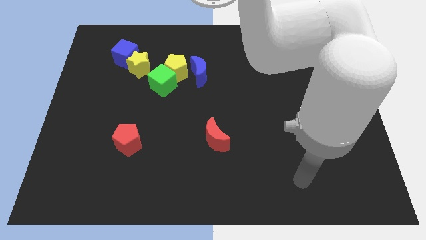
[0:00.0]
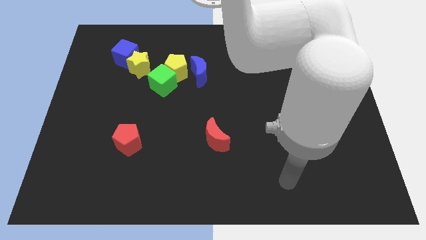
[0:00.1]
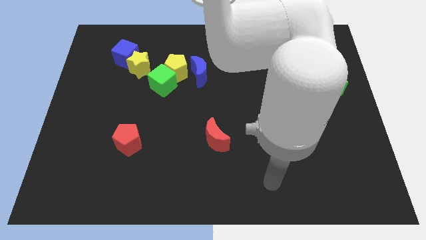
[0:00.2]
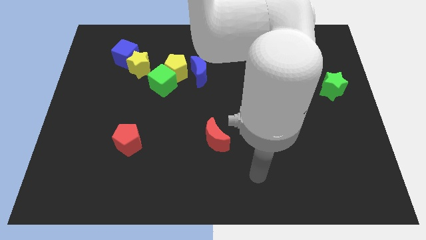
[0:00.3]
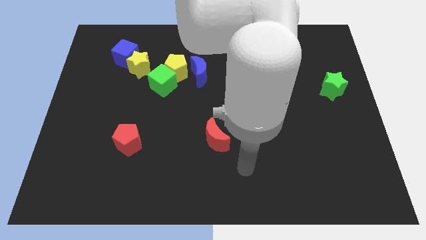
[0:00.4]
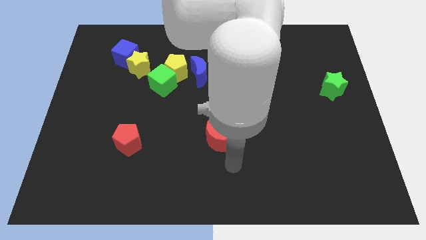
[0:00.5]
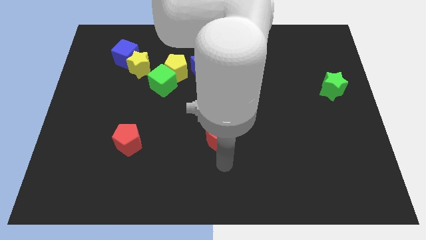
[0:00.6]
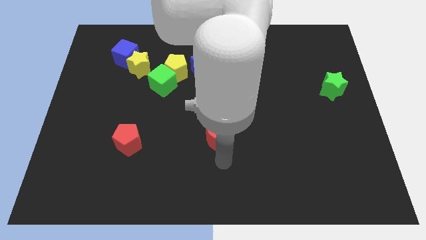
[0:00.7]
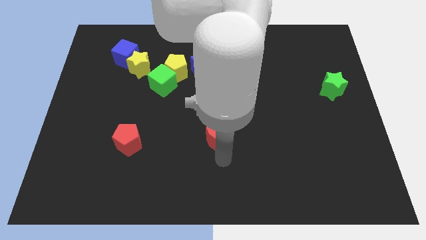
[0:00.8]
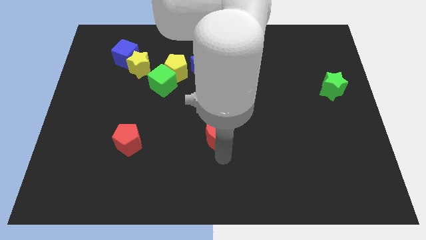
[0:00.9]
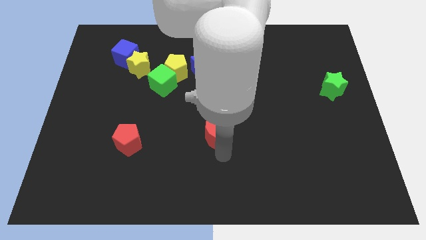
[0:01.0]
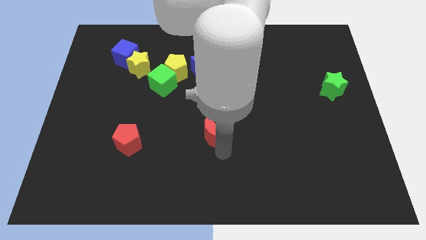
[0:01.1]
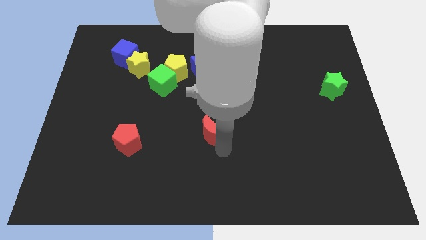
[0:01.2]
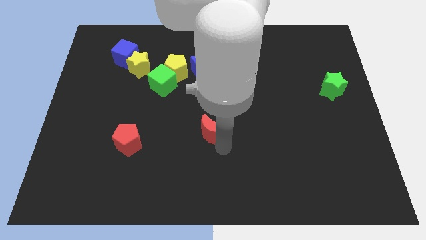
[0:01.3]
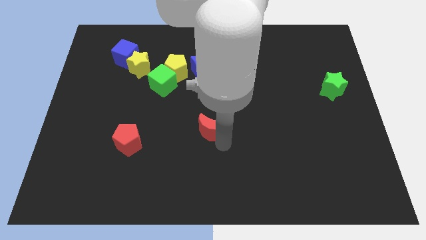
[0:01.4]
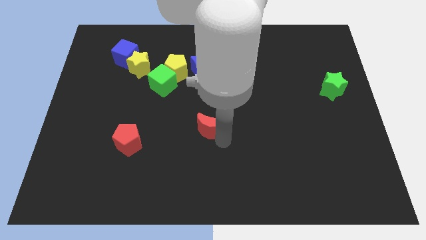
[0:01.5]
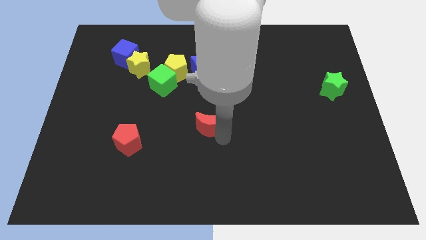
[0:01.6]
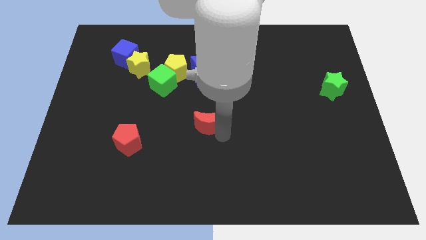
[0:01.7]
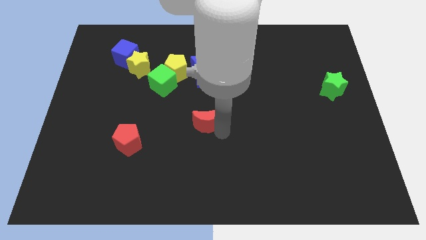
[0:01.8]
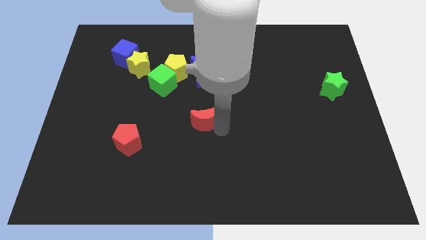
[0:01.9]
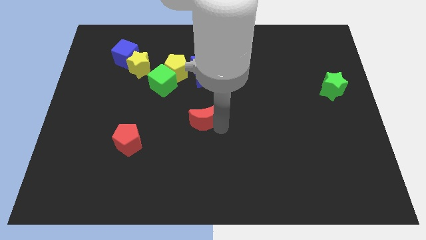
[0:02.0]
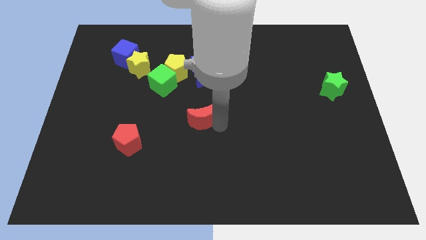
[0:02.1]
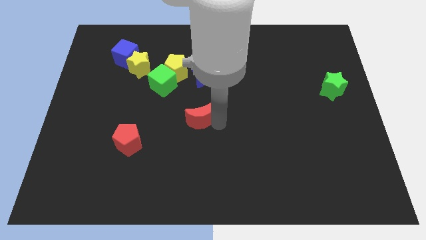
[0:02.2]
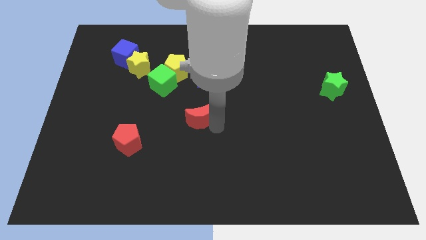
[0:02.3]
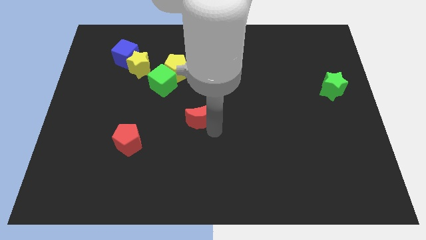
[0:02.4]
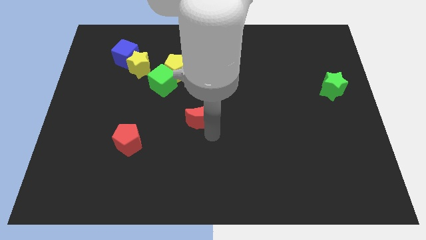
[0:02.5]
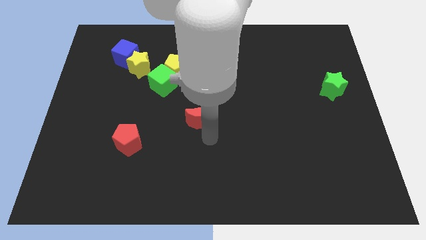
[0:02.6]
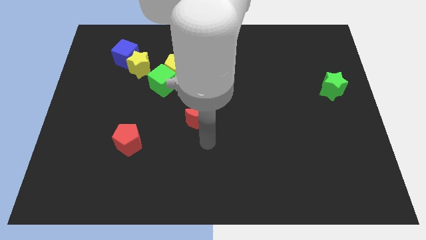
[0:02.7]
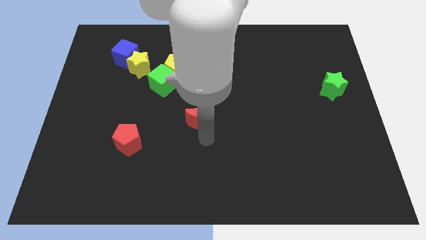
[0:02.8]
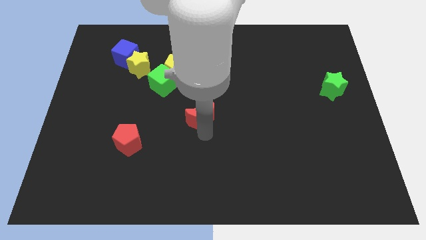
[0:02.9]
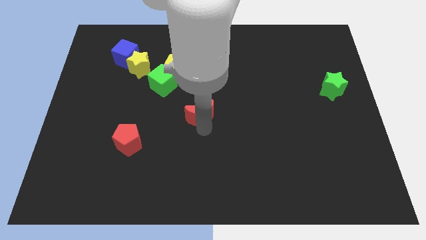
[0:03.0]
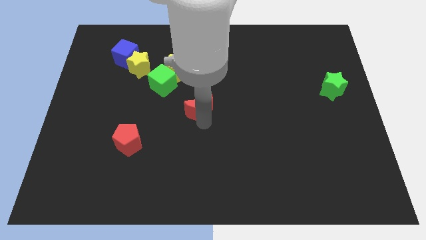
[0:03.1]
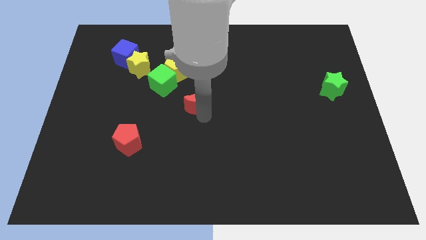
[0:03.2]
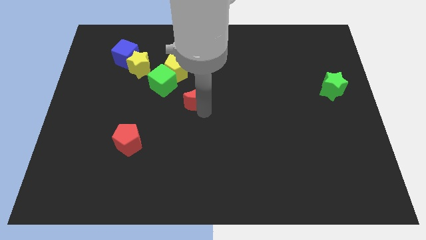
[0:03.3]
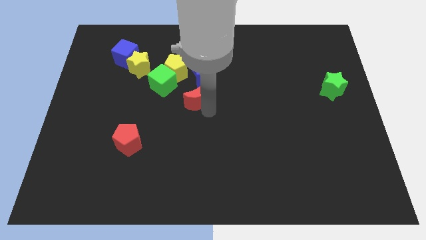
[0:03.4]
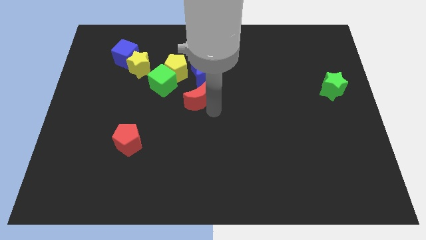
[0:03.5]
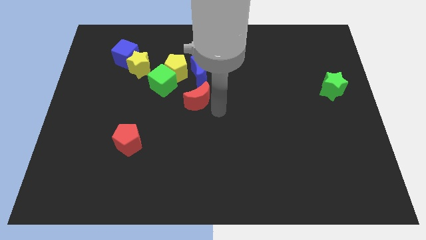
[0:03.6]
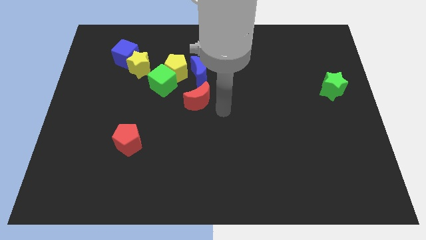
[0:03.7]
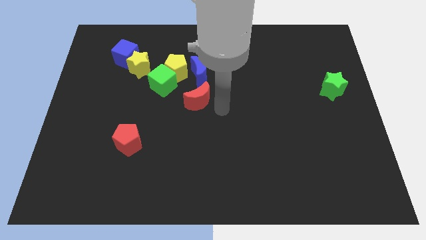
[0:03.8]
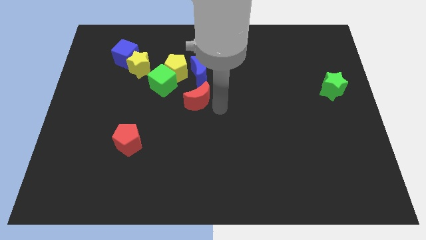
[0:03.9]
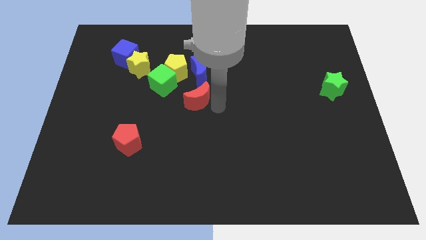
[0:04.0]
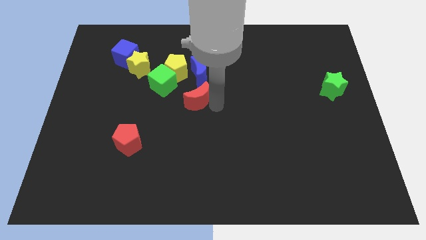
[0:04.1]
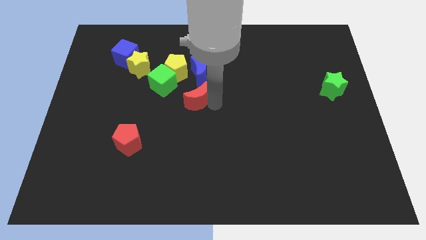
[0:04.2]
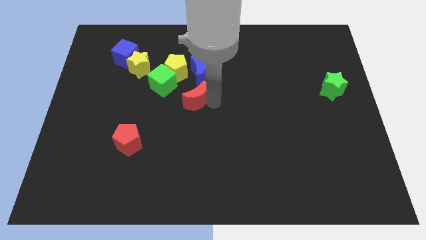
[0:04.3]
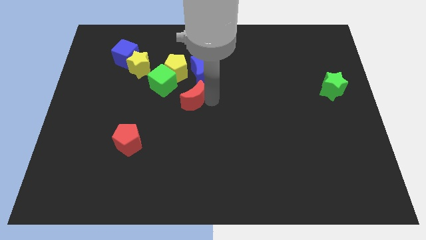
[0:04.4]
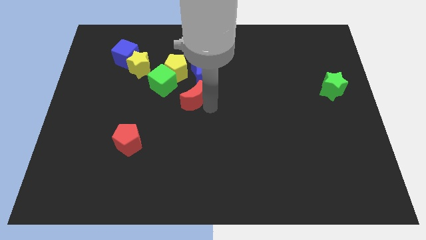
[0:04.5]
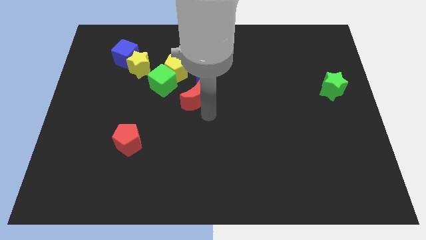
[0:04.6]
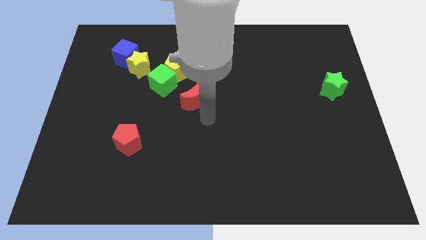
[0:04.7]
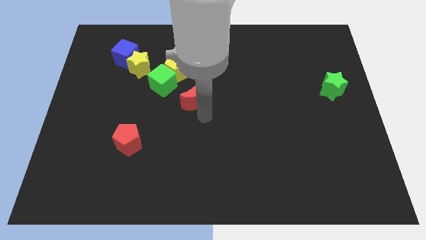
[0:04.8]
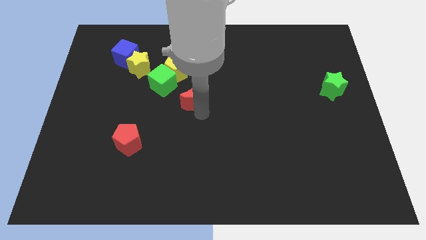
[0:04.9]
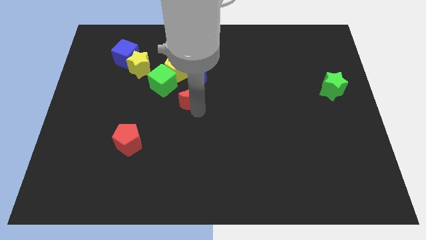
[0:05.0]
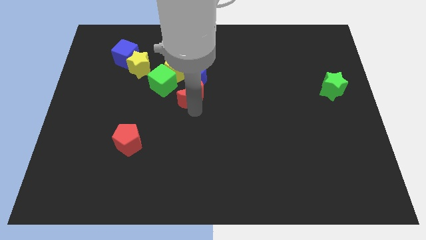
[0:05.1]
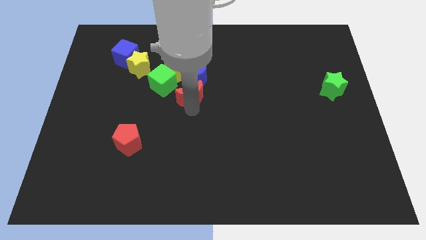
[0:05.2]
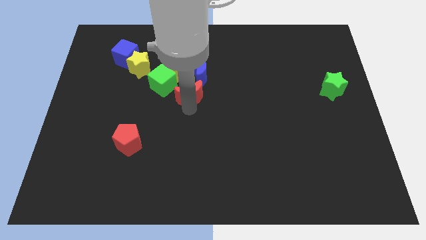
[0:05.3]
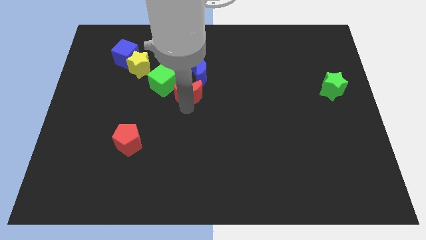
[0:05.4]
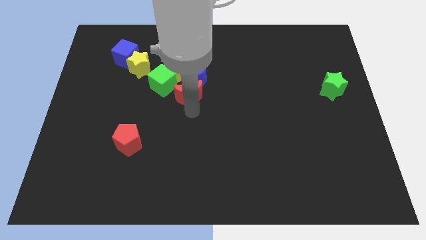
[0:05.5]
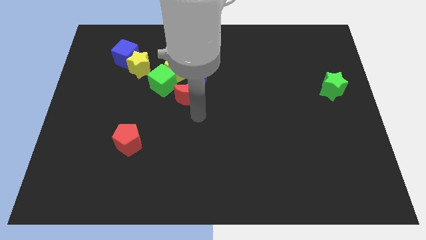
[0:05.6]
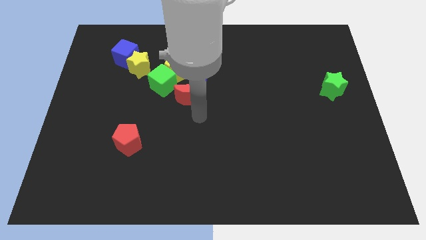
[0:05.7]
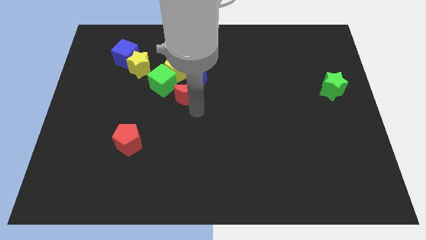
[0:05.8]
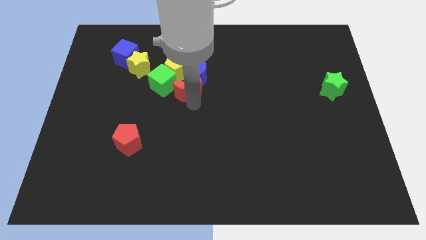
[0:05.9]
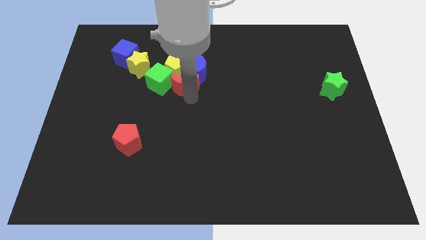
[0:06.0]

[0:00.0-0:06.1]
put the red moon next to the yellow pentagon

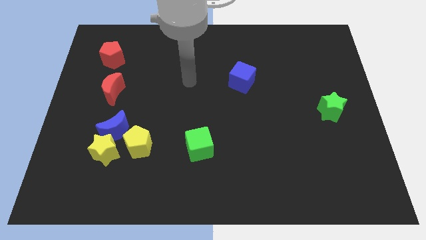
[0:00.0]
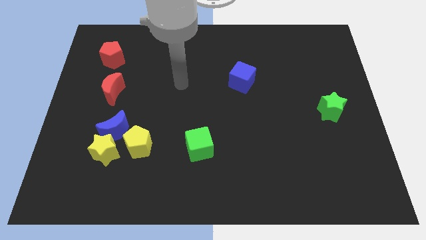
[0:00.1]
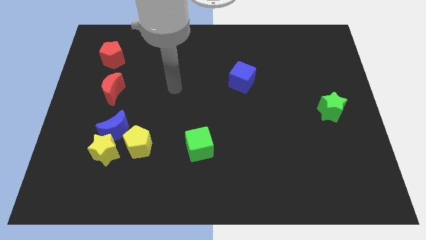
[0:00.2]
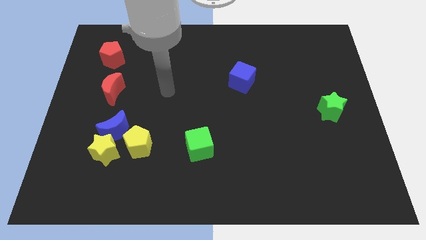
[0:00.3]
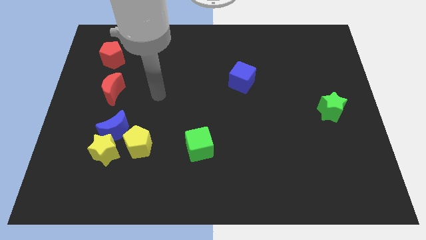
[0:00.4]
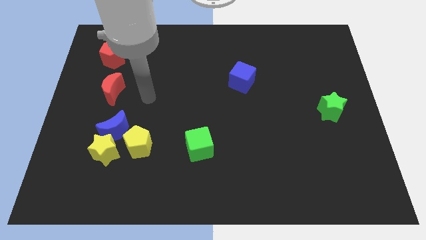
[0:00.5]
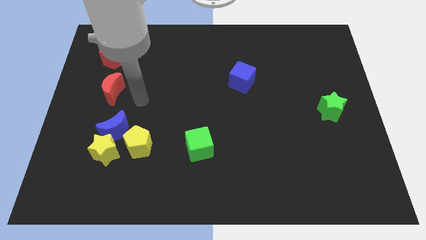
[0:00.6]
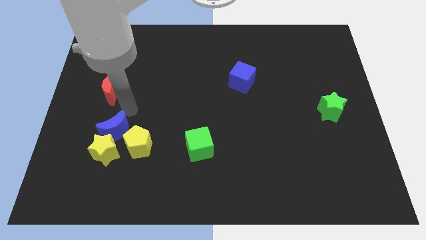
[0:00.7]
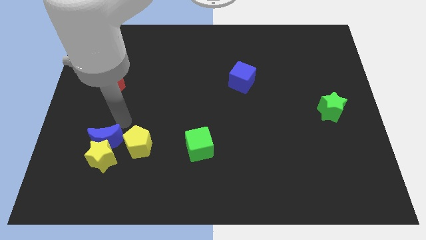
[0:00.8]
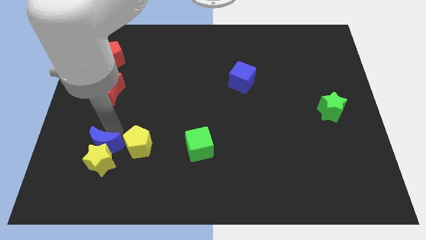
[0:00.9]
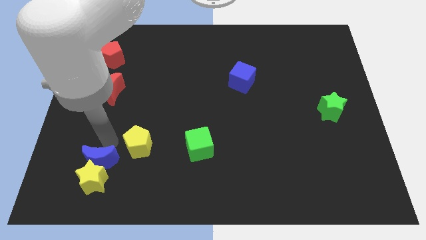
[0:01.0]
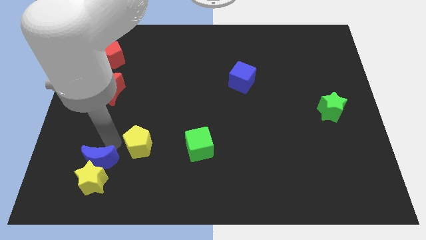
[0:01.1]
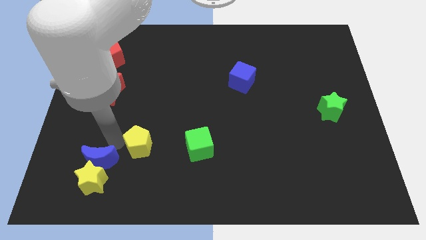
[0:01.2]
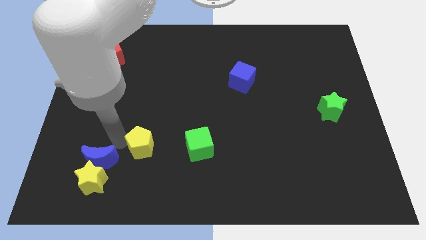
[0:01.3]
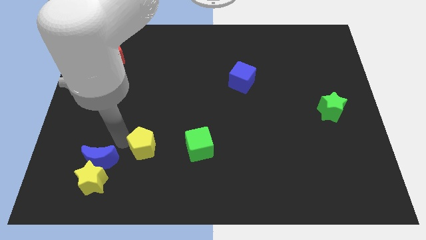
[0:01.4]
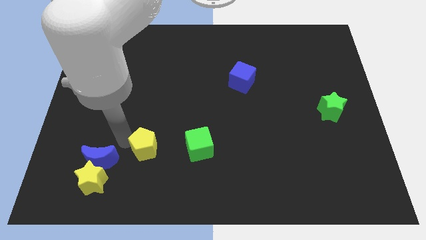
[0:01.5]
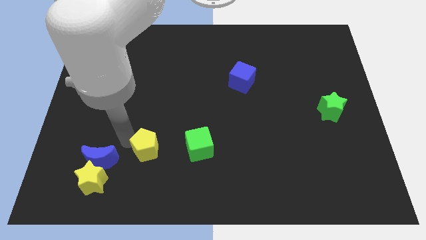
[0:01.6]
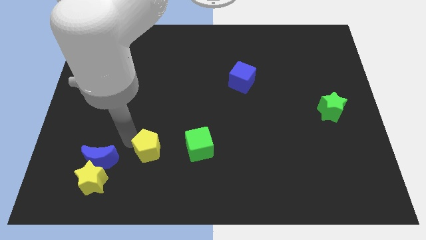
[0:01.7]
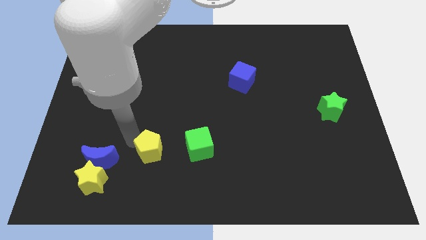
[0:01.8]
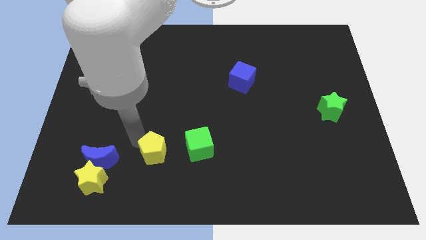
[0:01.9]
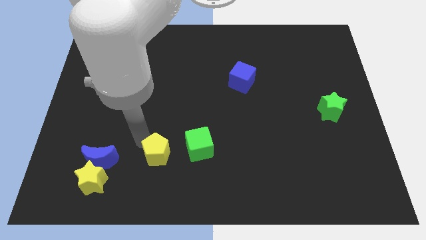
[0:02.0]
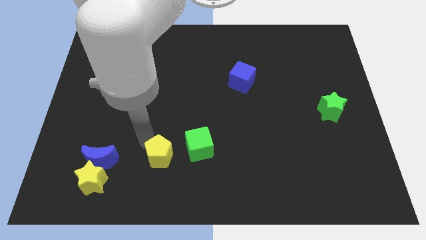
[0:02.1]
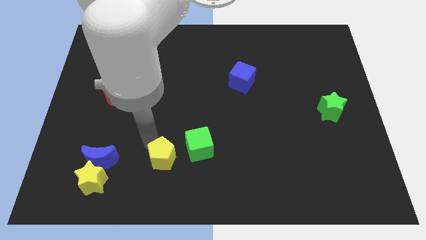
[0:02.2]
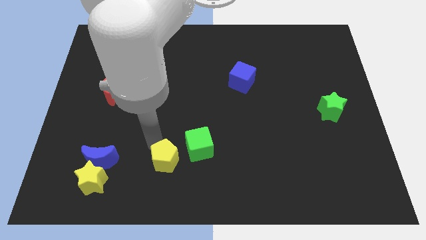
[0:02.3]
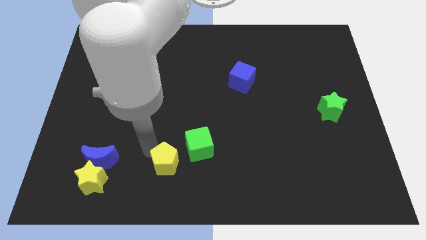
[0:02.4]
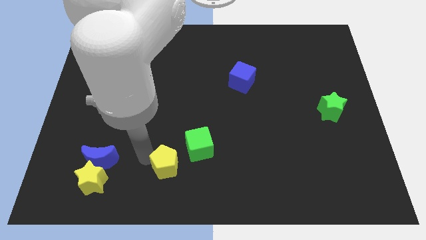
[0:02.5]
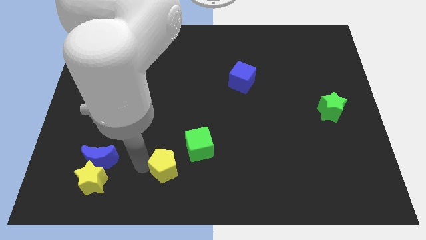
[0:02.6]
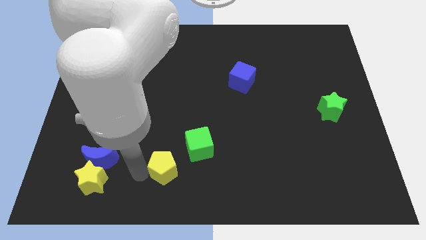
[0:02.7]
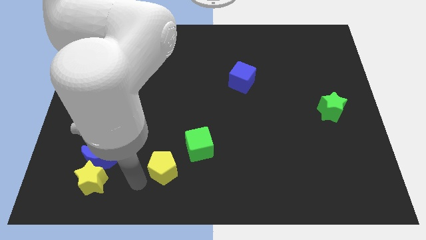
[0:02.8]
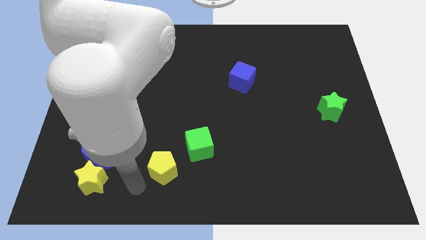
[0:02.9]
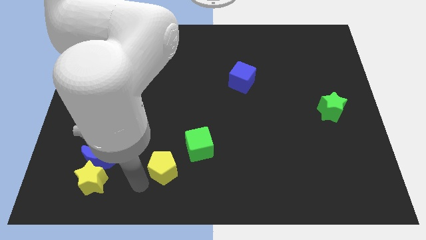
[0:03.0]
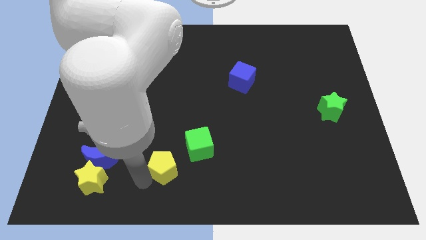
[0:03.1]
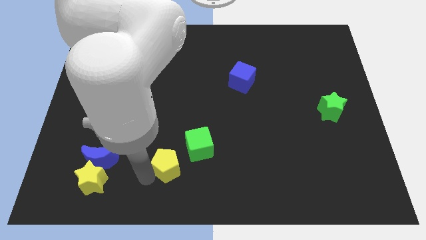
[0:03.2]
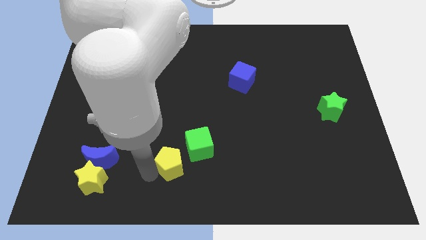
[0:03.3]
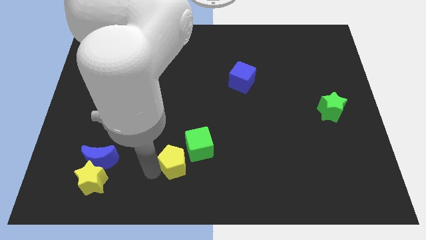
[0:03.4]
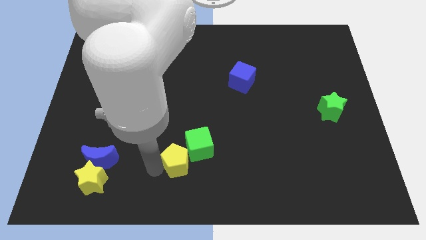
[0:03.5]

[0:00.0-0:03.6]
slide the yellow pentagon close to the green cube
